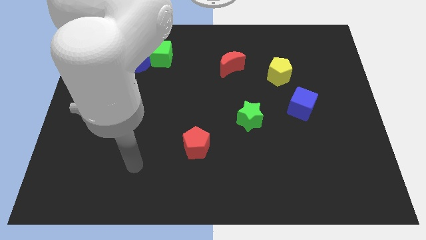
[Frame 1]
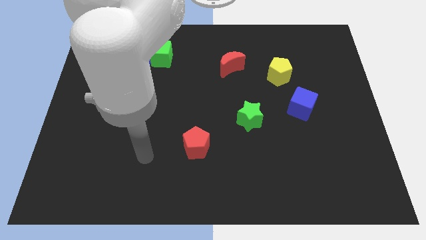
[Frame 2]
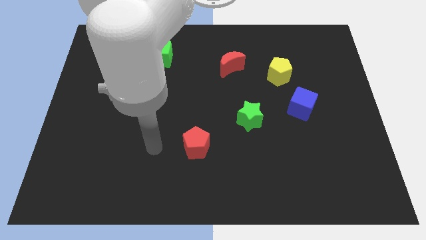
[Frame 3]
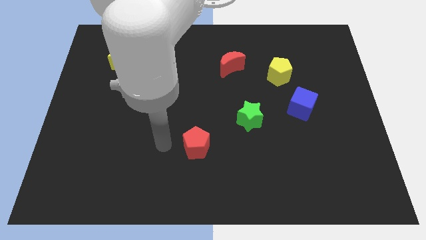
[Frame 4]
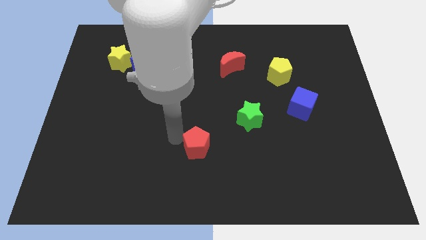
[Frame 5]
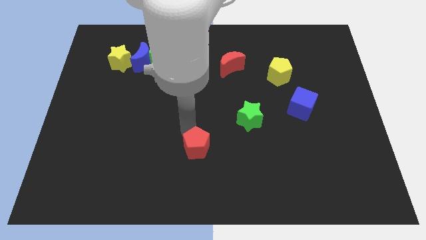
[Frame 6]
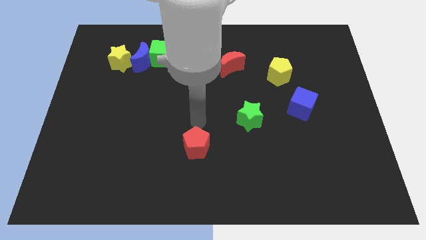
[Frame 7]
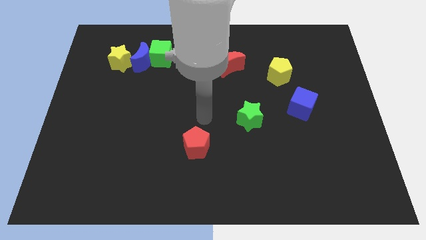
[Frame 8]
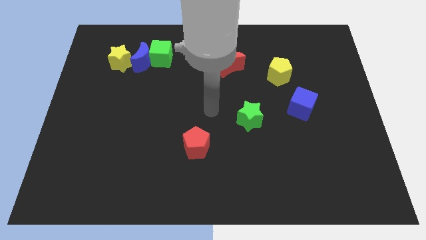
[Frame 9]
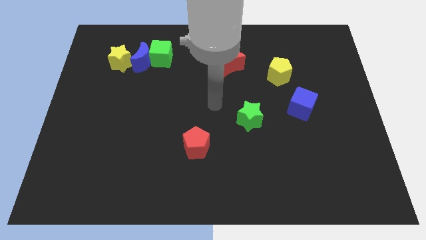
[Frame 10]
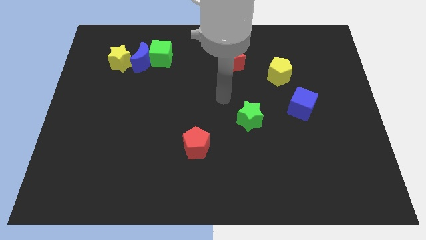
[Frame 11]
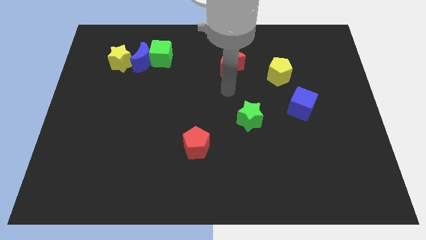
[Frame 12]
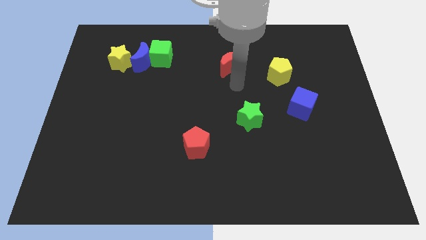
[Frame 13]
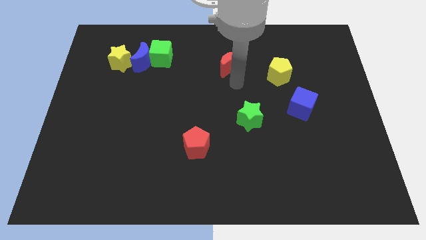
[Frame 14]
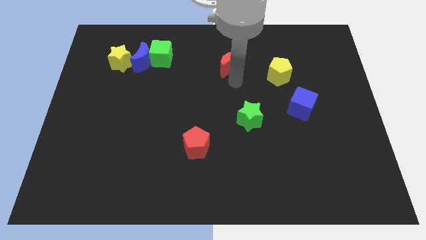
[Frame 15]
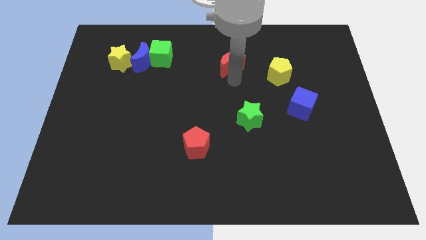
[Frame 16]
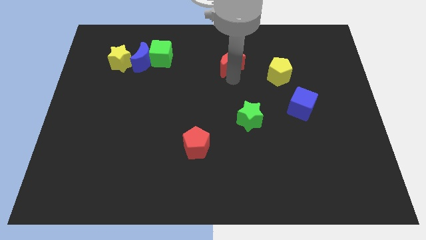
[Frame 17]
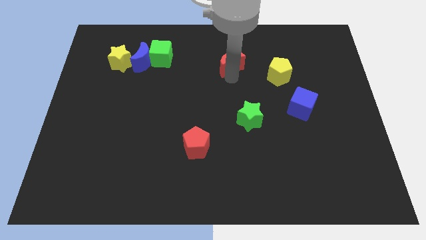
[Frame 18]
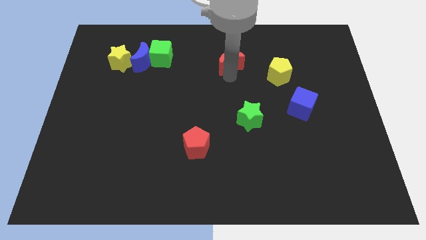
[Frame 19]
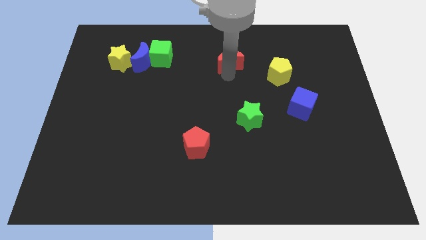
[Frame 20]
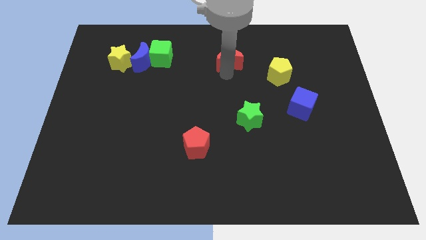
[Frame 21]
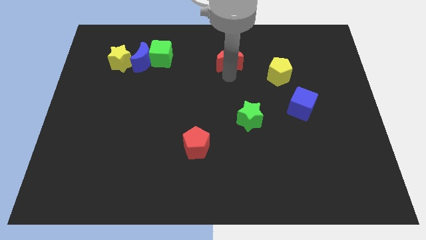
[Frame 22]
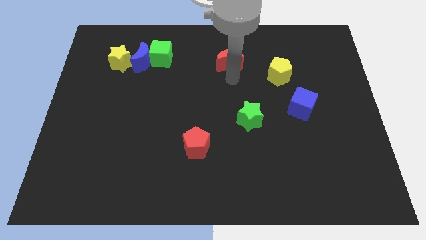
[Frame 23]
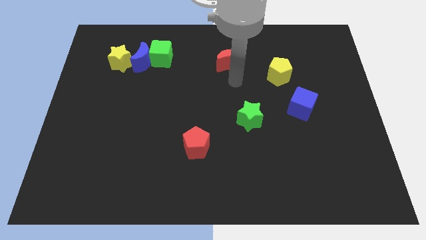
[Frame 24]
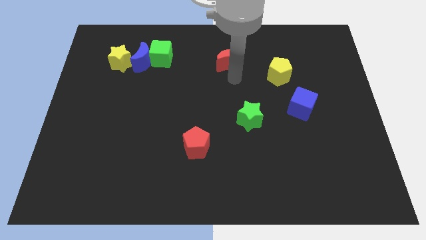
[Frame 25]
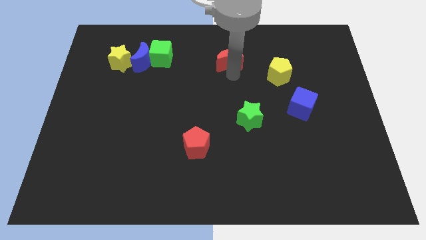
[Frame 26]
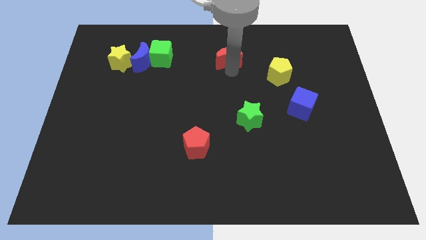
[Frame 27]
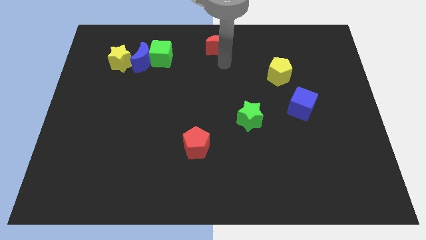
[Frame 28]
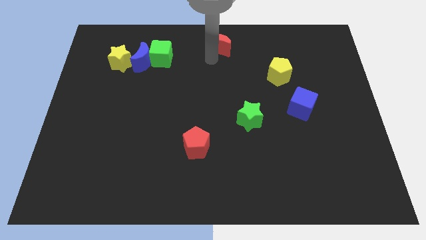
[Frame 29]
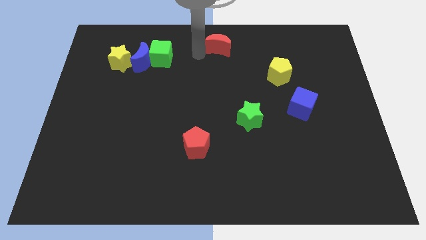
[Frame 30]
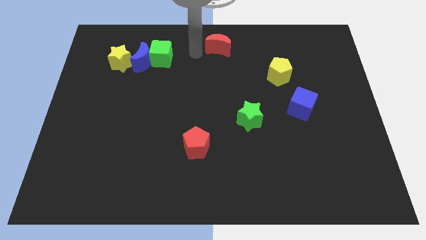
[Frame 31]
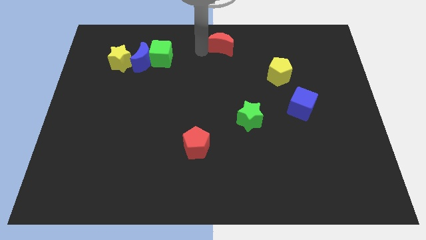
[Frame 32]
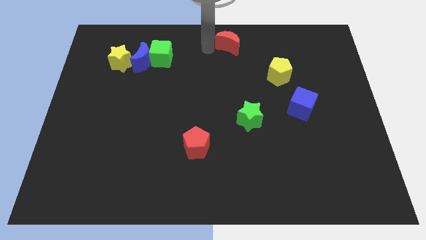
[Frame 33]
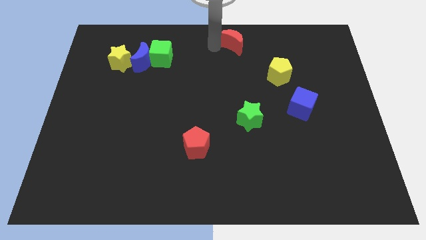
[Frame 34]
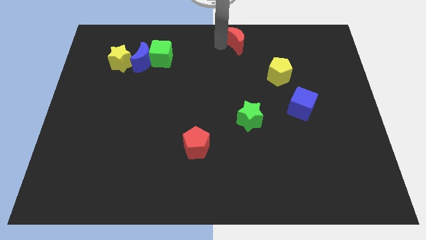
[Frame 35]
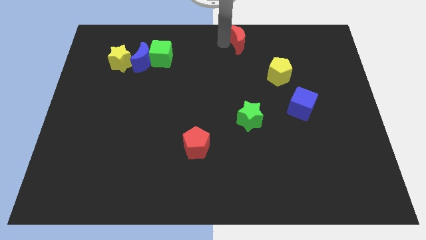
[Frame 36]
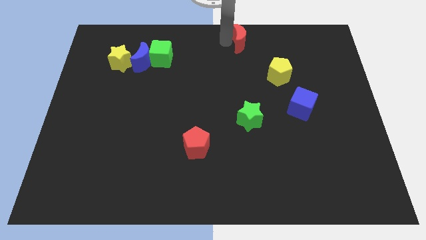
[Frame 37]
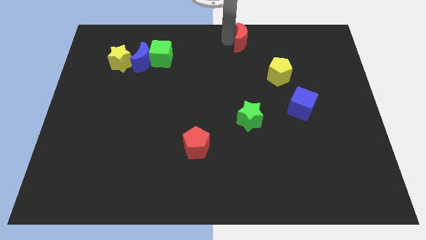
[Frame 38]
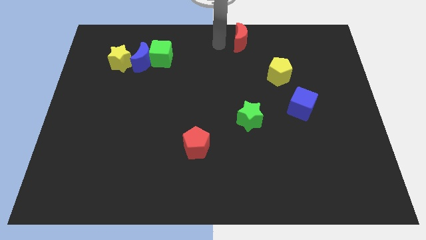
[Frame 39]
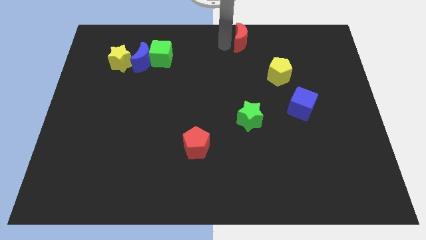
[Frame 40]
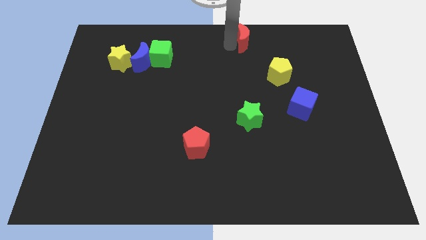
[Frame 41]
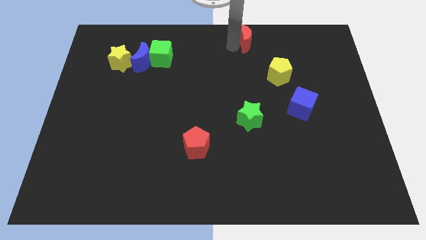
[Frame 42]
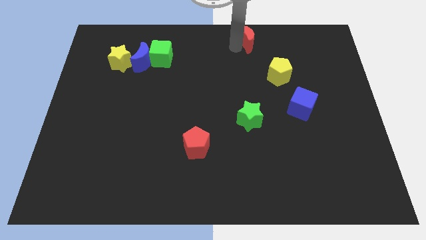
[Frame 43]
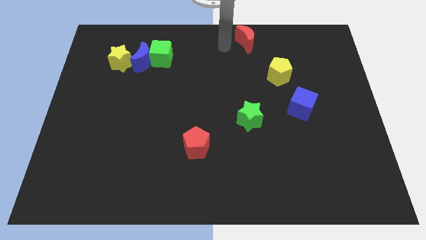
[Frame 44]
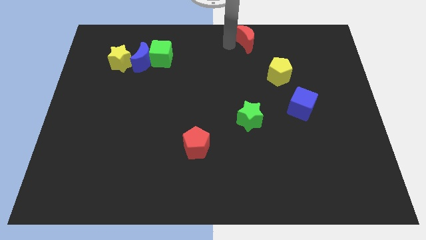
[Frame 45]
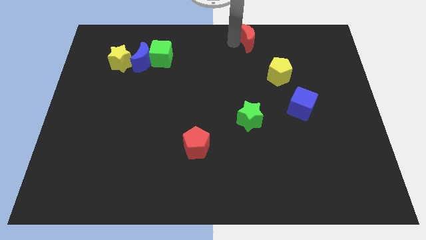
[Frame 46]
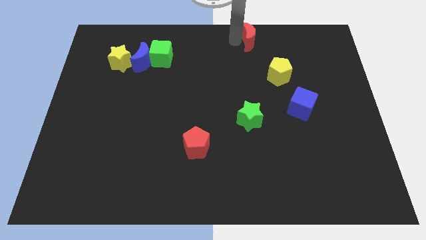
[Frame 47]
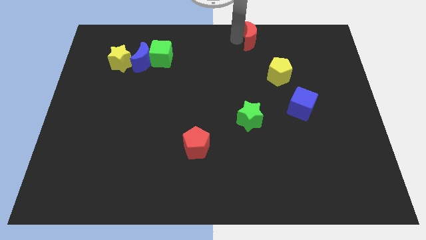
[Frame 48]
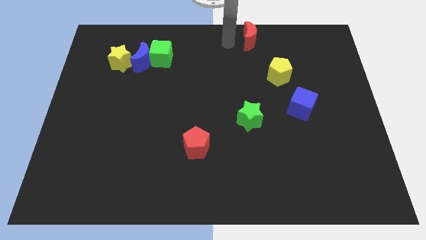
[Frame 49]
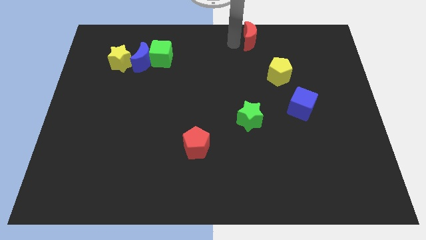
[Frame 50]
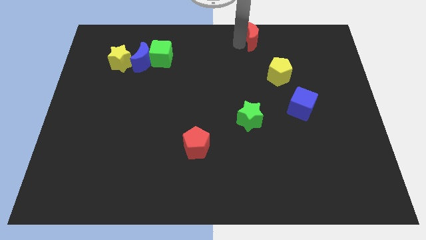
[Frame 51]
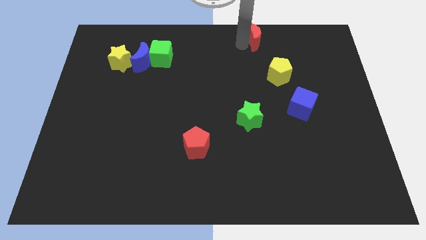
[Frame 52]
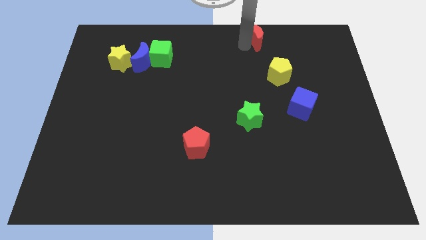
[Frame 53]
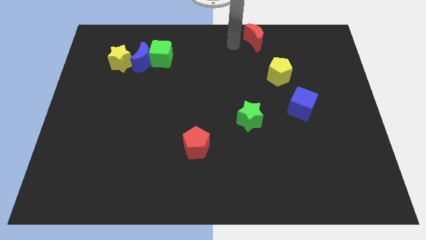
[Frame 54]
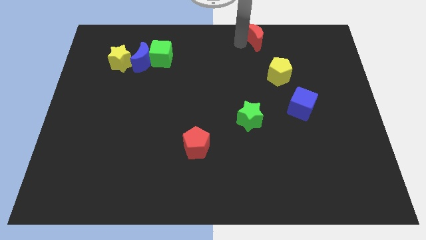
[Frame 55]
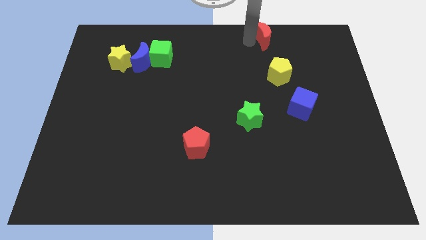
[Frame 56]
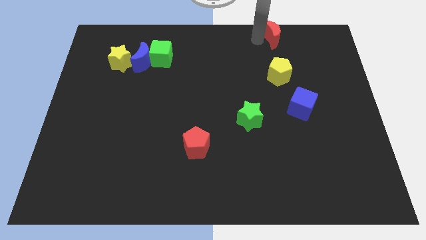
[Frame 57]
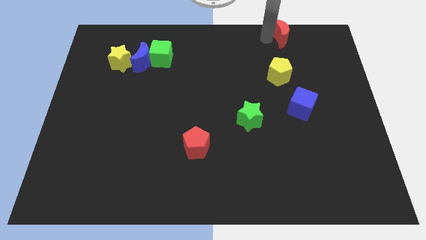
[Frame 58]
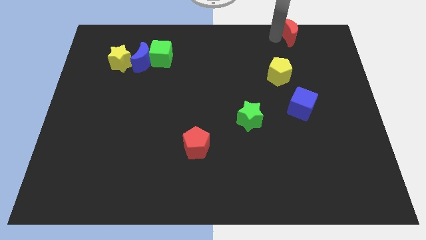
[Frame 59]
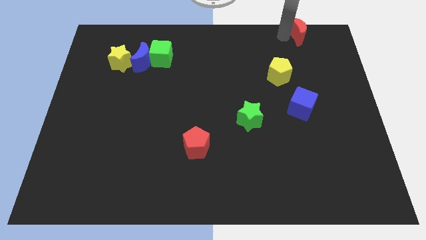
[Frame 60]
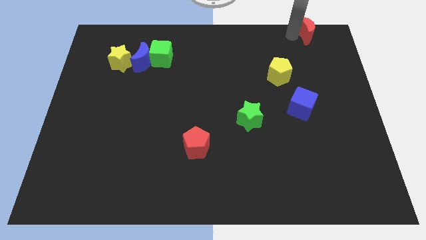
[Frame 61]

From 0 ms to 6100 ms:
put the red moon to the top right of the board

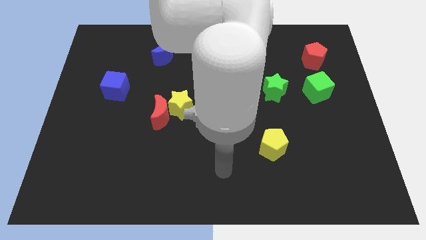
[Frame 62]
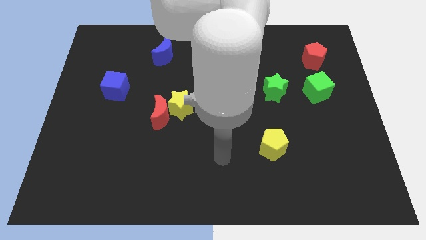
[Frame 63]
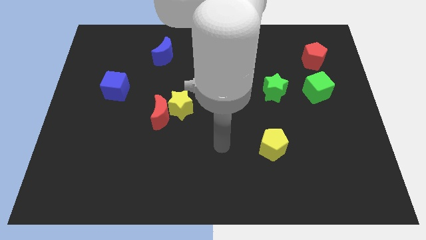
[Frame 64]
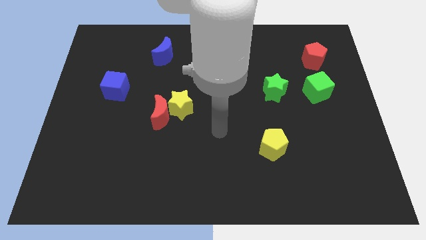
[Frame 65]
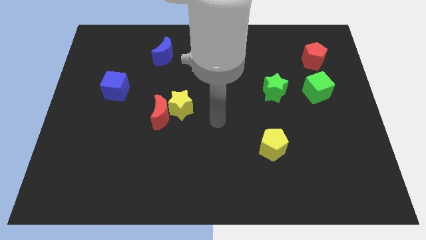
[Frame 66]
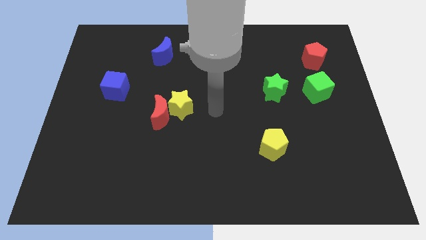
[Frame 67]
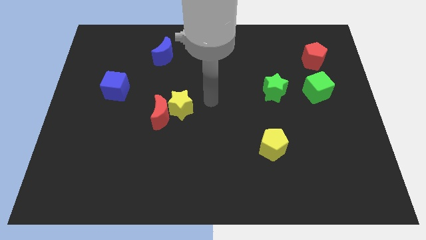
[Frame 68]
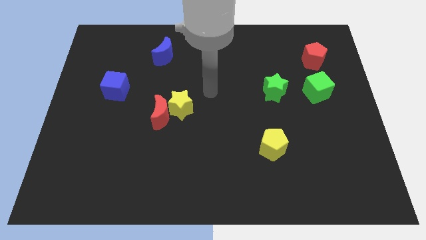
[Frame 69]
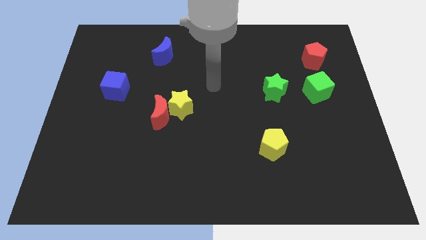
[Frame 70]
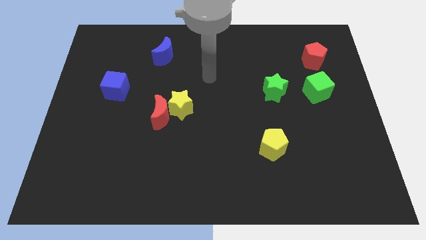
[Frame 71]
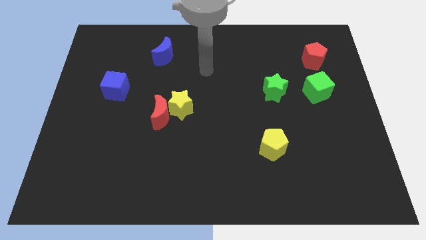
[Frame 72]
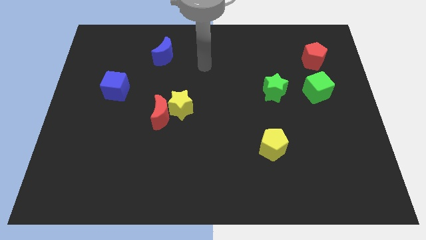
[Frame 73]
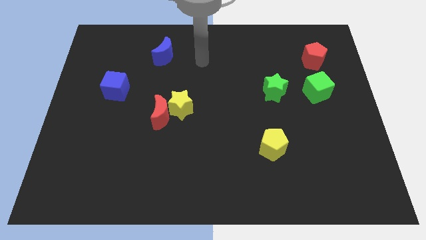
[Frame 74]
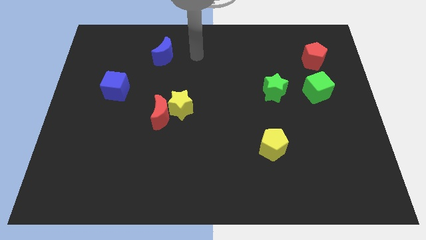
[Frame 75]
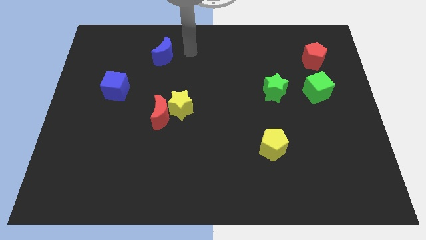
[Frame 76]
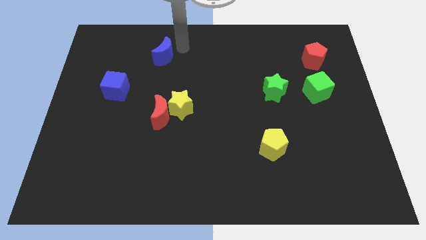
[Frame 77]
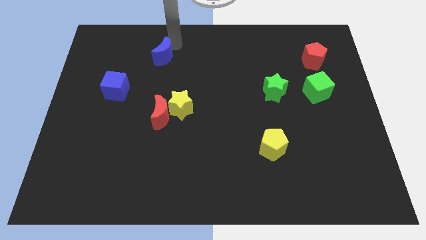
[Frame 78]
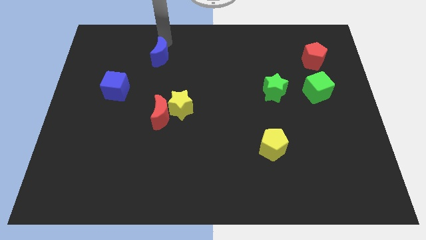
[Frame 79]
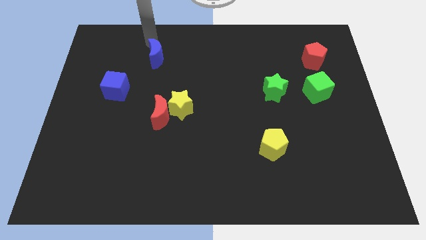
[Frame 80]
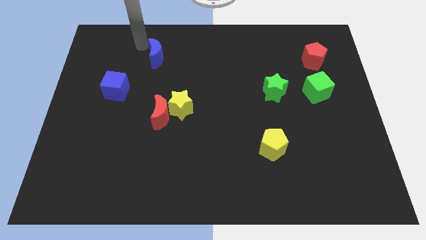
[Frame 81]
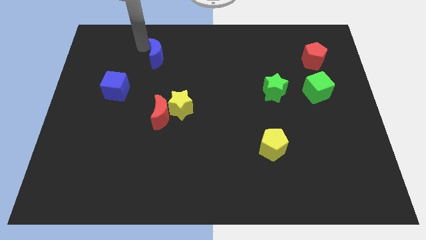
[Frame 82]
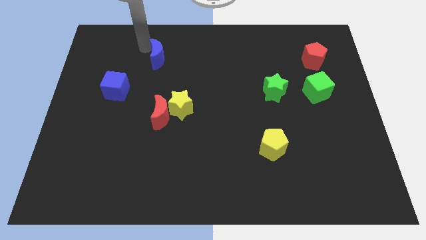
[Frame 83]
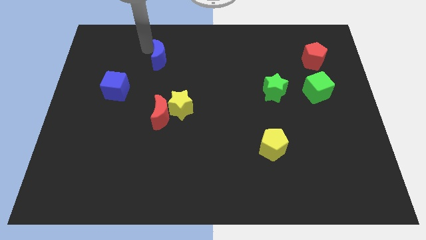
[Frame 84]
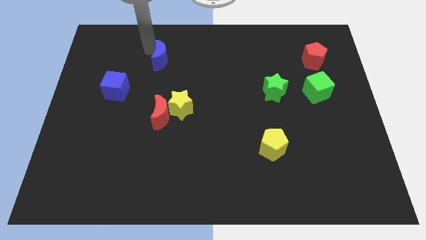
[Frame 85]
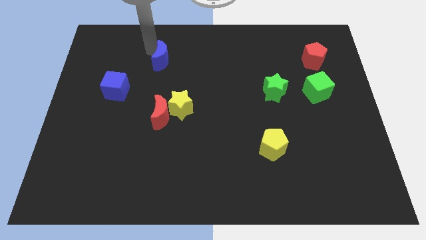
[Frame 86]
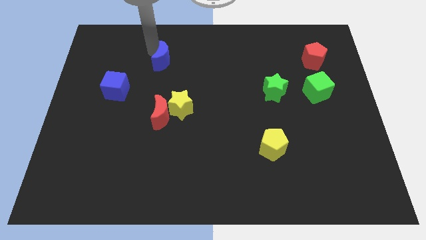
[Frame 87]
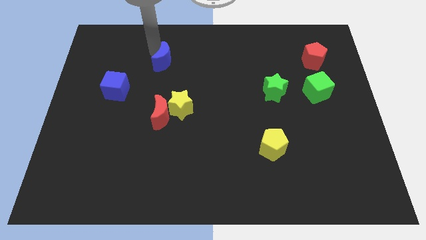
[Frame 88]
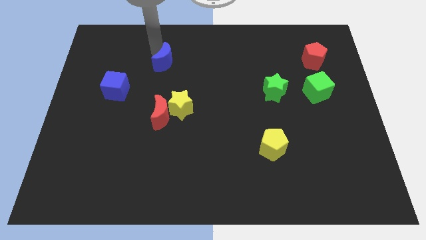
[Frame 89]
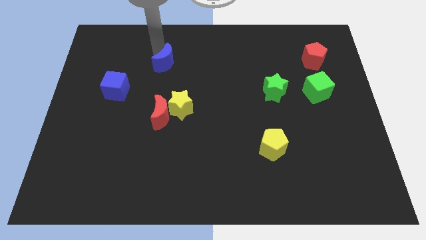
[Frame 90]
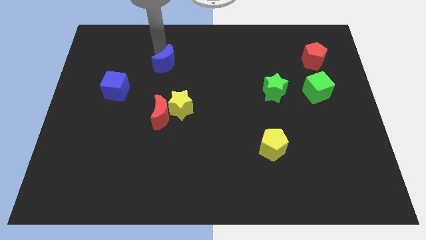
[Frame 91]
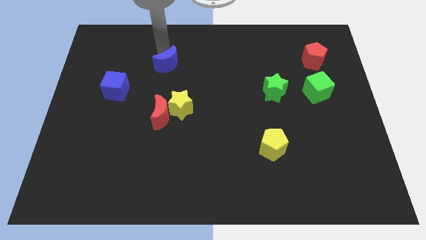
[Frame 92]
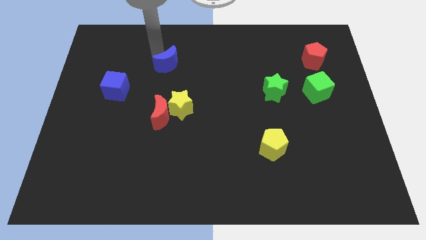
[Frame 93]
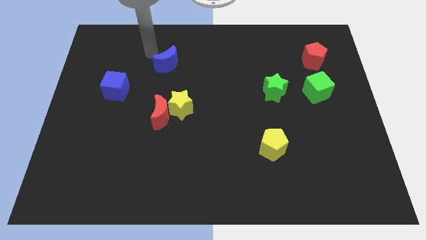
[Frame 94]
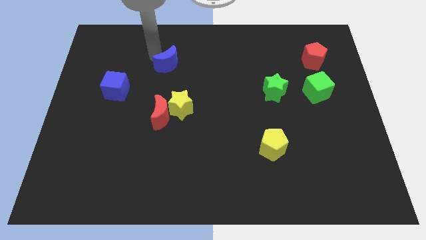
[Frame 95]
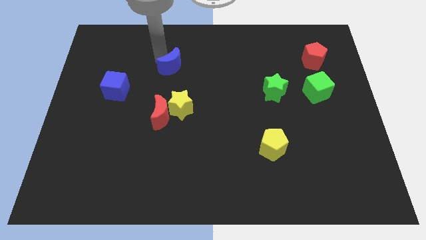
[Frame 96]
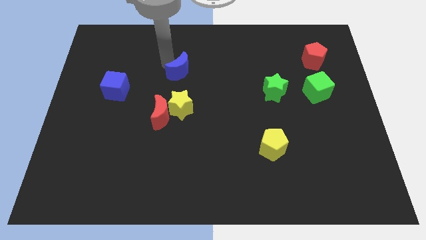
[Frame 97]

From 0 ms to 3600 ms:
push the blue moon to the center
